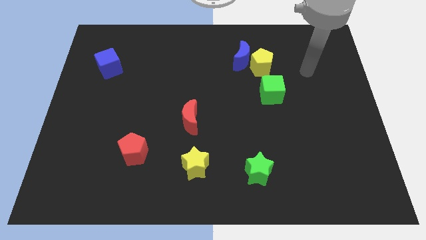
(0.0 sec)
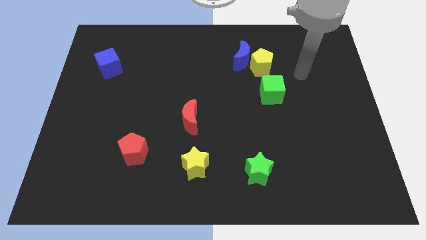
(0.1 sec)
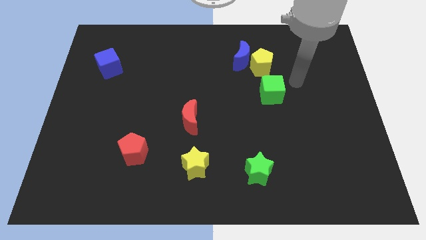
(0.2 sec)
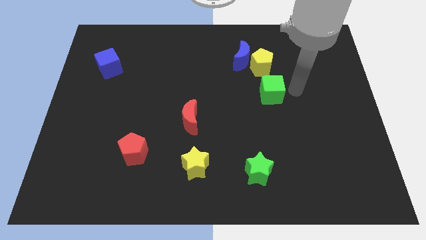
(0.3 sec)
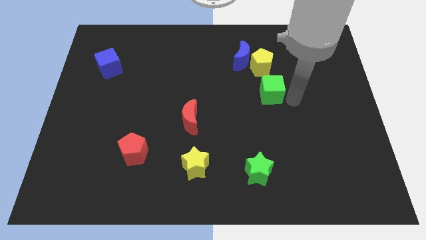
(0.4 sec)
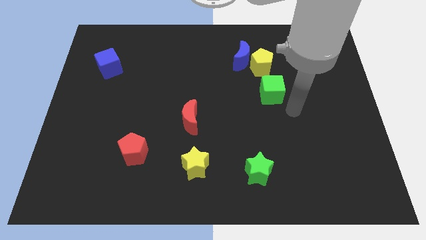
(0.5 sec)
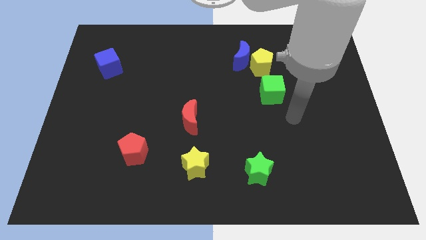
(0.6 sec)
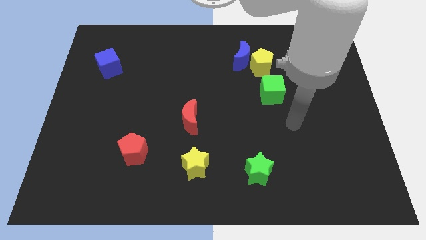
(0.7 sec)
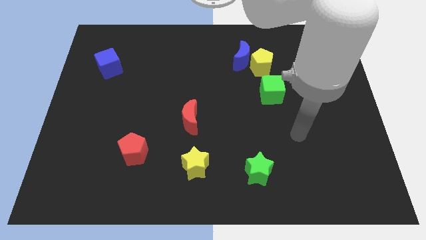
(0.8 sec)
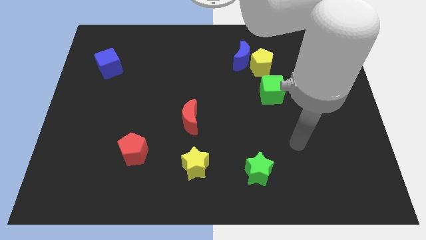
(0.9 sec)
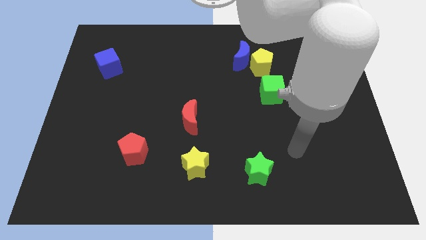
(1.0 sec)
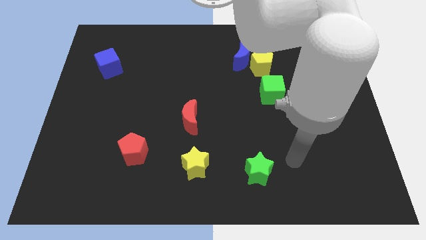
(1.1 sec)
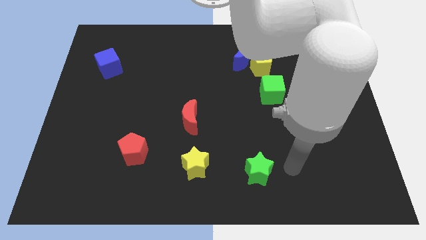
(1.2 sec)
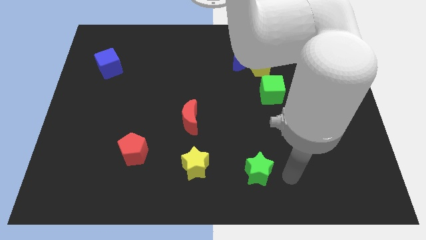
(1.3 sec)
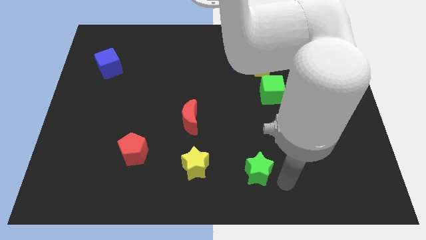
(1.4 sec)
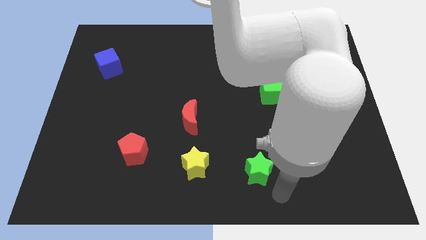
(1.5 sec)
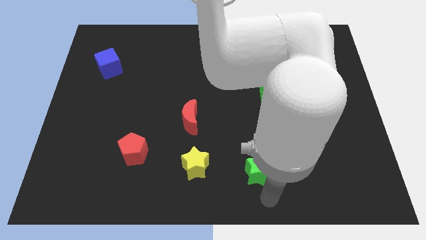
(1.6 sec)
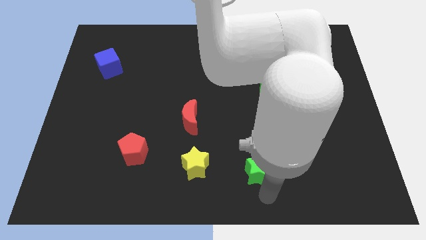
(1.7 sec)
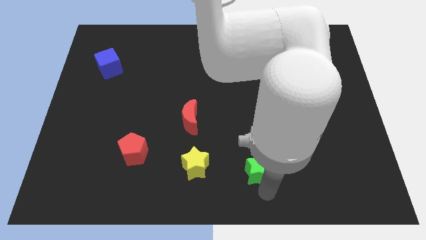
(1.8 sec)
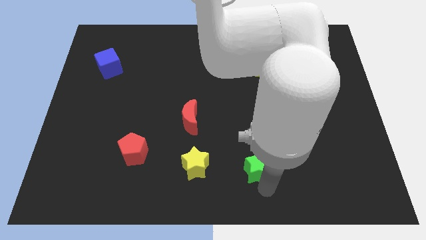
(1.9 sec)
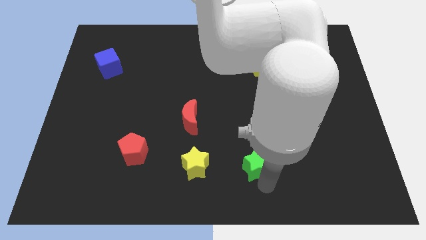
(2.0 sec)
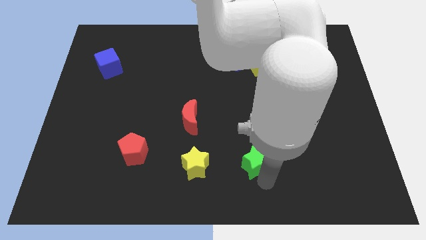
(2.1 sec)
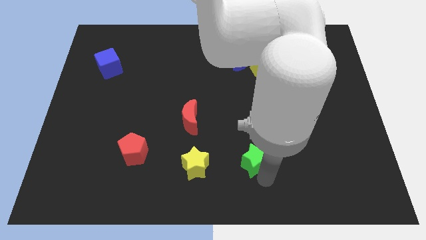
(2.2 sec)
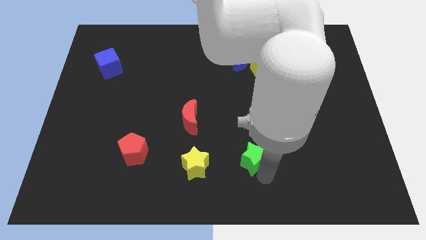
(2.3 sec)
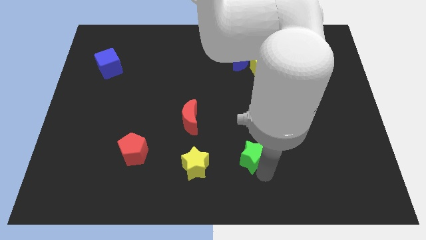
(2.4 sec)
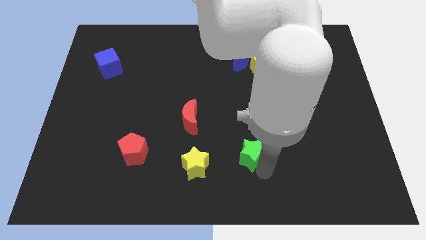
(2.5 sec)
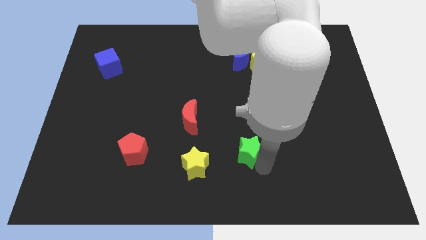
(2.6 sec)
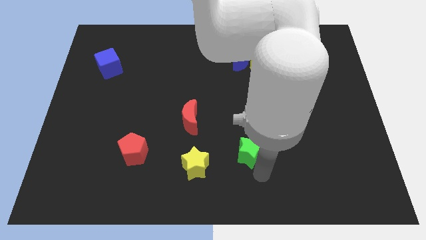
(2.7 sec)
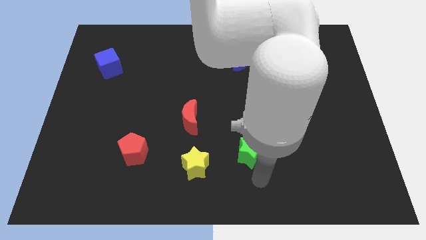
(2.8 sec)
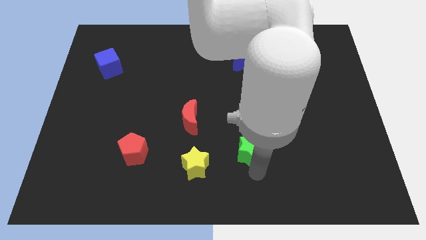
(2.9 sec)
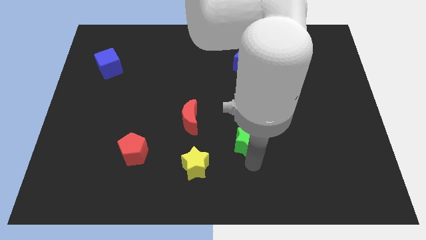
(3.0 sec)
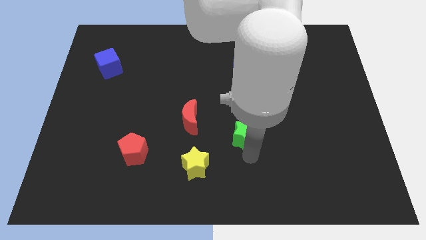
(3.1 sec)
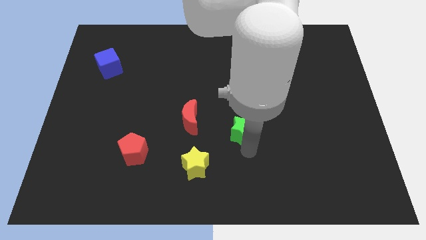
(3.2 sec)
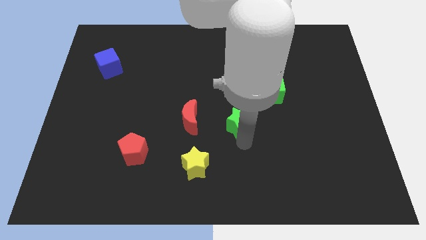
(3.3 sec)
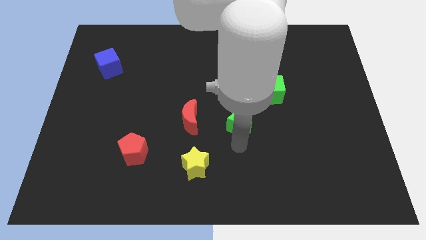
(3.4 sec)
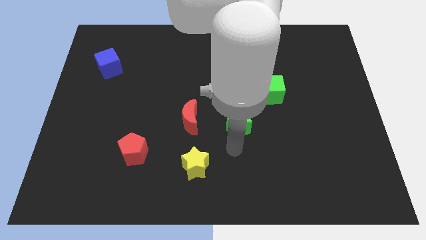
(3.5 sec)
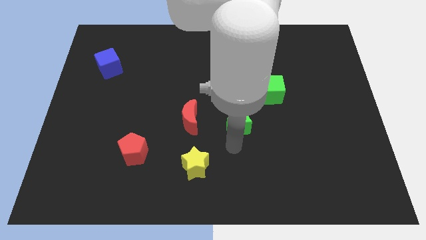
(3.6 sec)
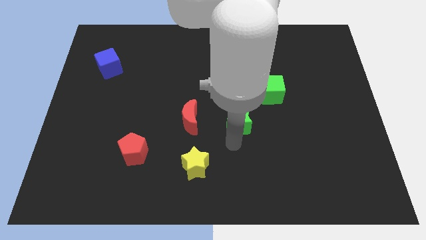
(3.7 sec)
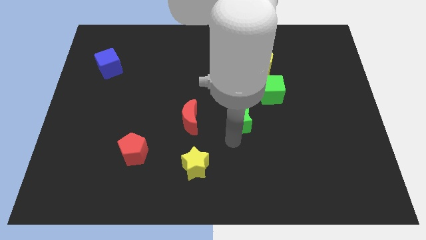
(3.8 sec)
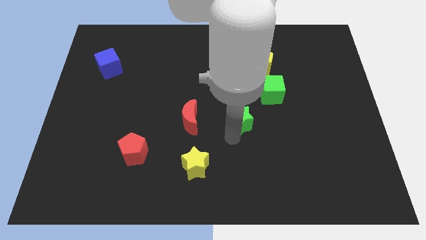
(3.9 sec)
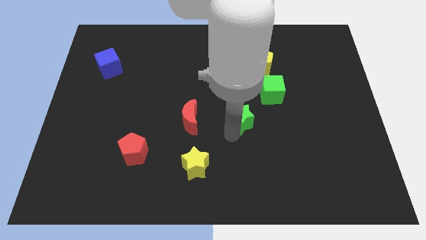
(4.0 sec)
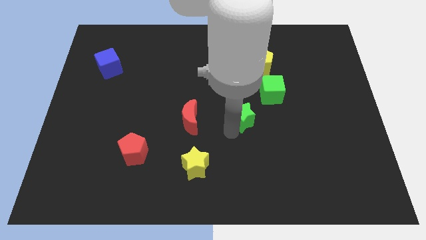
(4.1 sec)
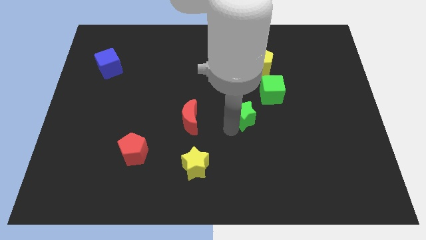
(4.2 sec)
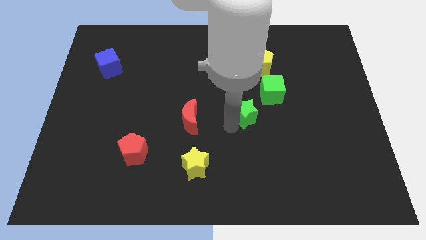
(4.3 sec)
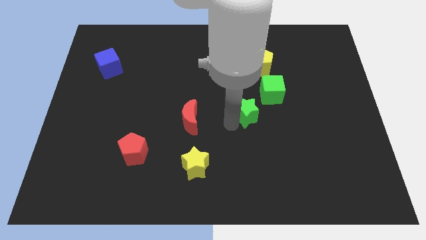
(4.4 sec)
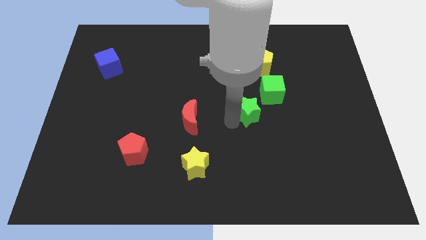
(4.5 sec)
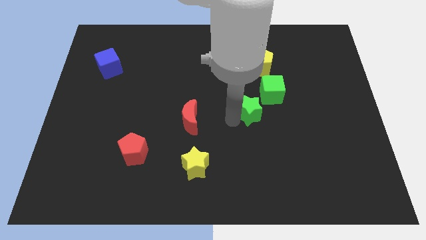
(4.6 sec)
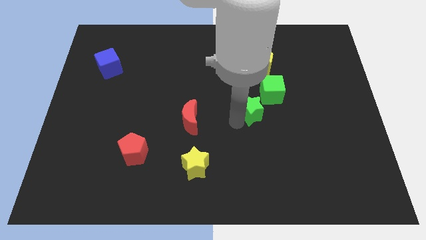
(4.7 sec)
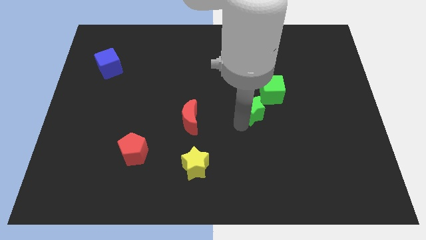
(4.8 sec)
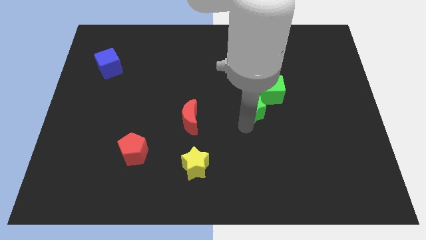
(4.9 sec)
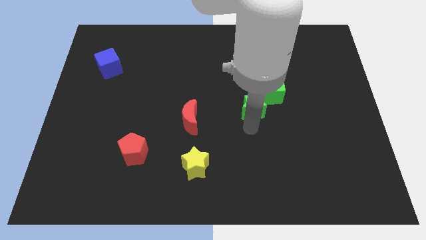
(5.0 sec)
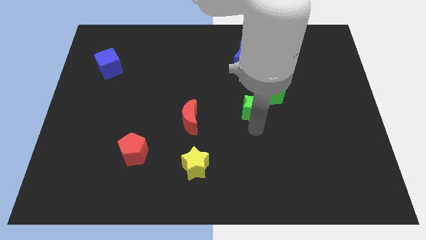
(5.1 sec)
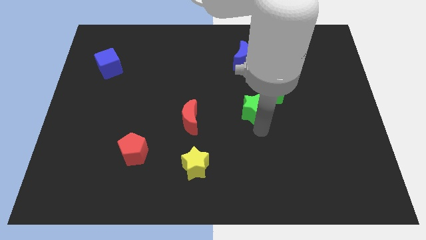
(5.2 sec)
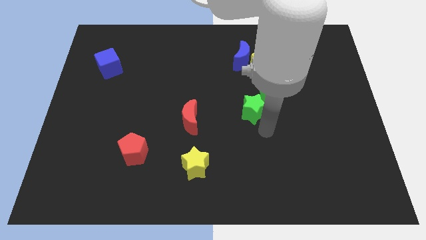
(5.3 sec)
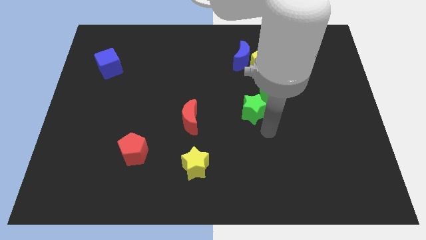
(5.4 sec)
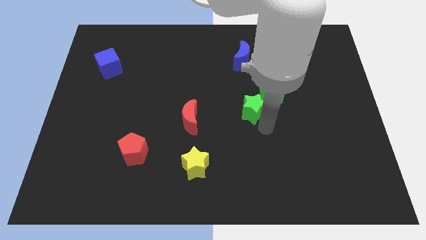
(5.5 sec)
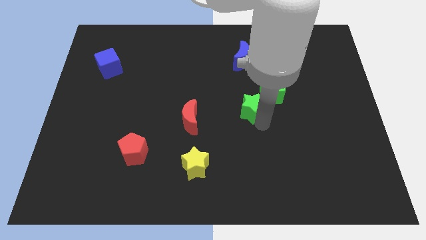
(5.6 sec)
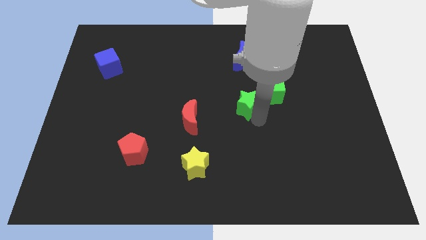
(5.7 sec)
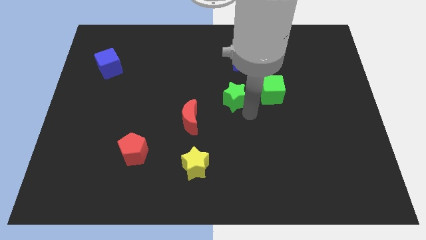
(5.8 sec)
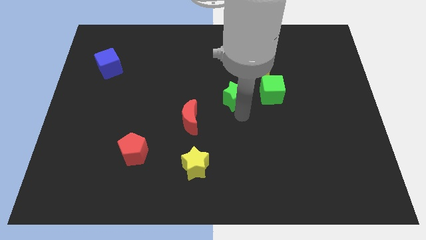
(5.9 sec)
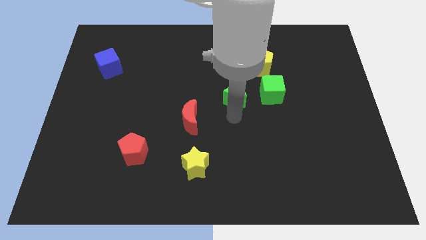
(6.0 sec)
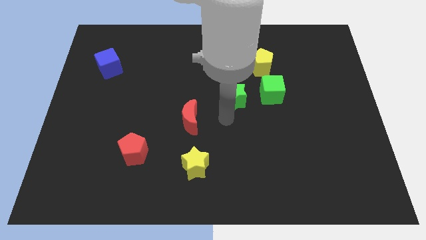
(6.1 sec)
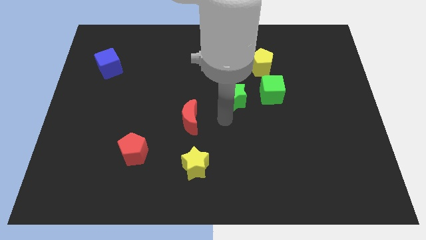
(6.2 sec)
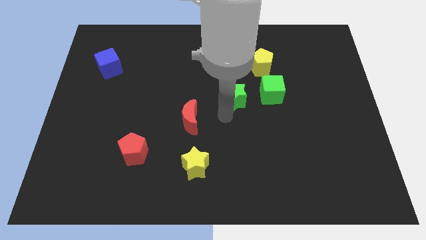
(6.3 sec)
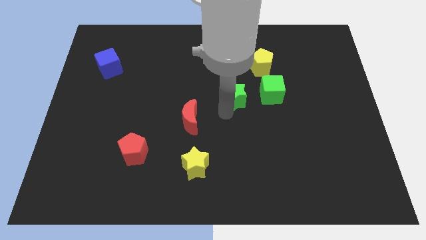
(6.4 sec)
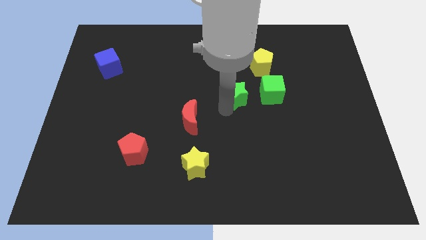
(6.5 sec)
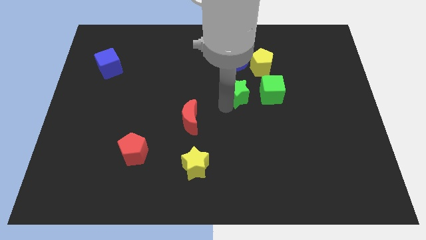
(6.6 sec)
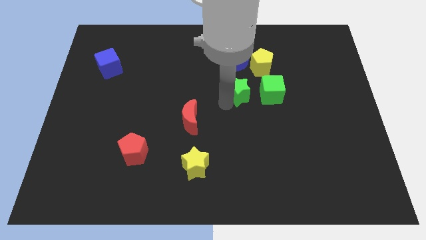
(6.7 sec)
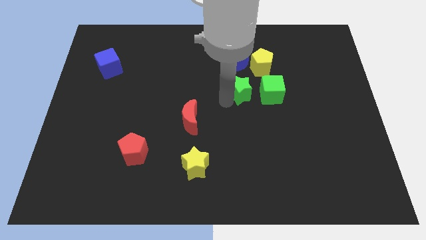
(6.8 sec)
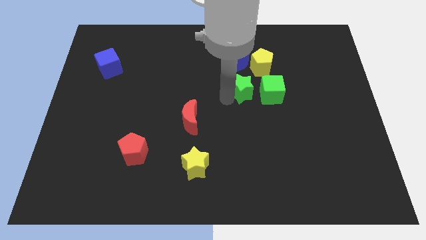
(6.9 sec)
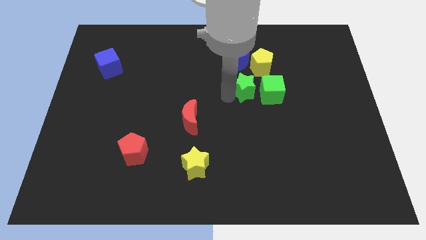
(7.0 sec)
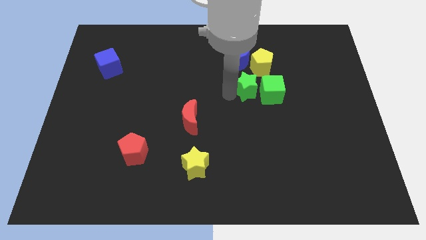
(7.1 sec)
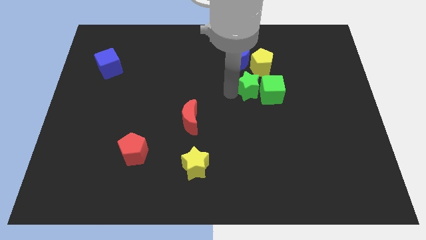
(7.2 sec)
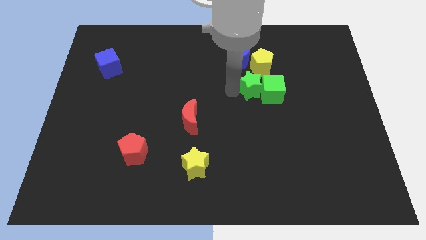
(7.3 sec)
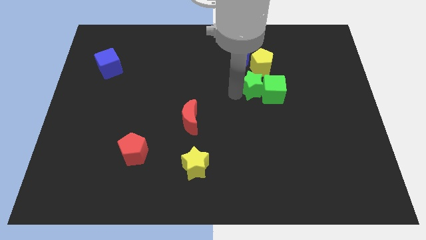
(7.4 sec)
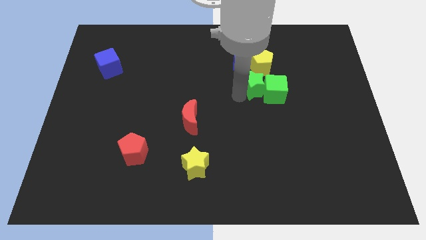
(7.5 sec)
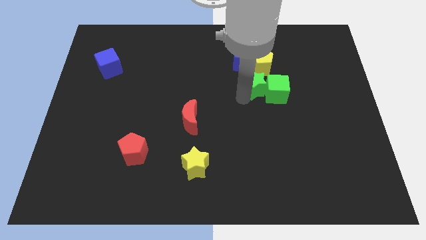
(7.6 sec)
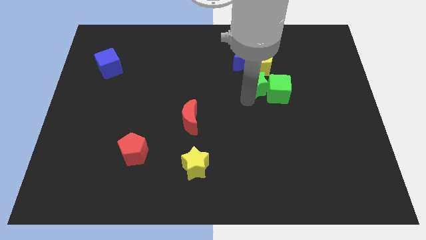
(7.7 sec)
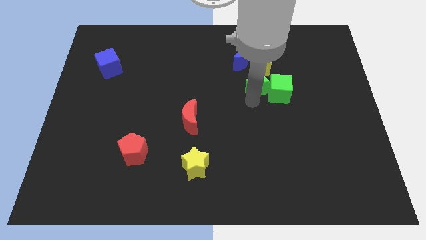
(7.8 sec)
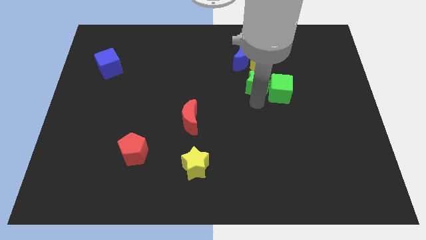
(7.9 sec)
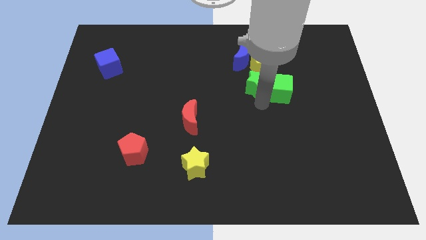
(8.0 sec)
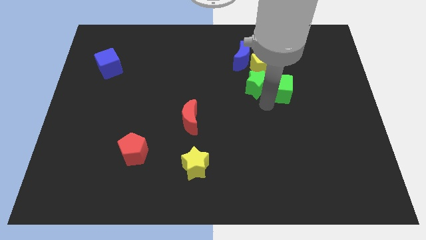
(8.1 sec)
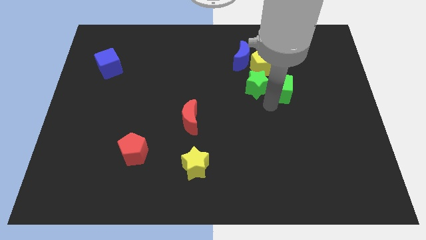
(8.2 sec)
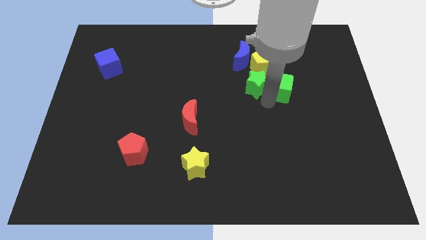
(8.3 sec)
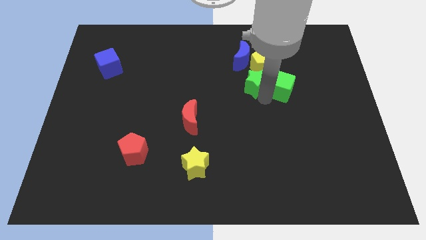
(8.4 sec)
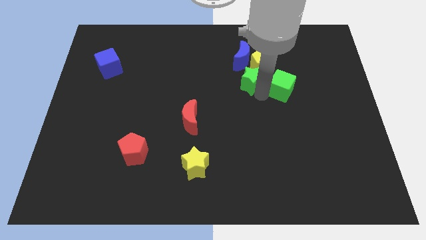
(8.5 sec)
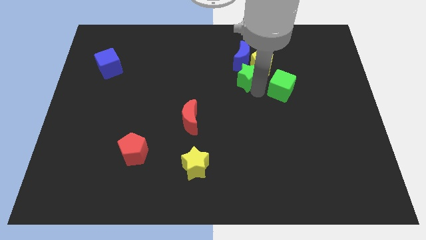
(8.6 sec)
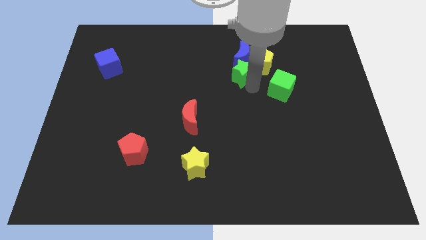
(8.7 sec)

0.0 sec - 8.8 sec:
slide the green star towards the blue moon
